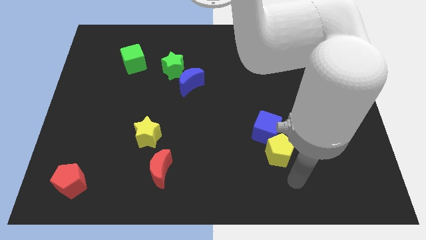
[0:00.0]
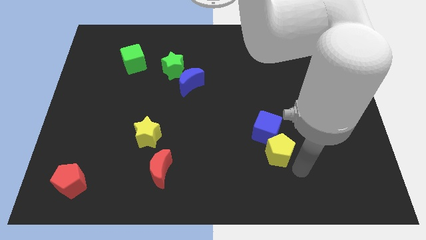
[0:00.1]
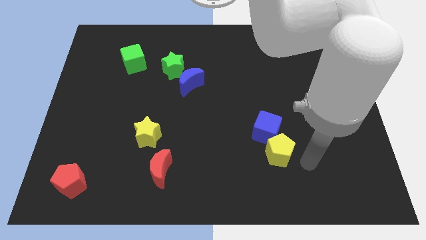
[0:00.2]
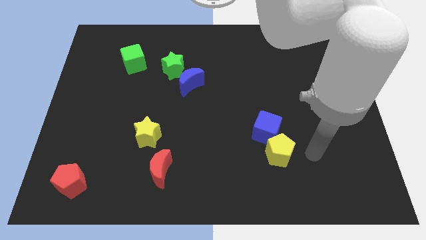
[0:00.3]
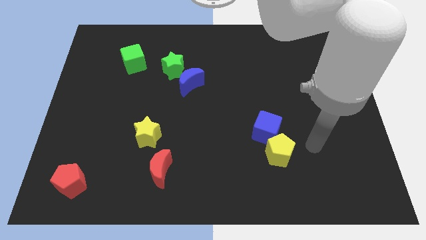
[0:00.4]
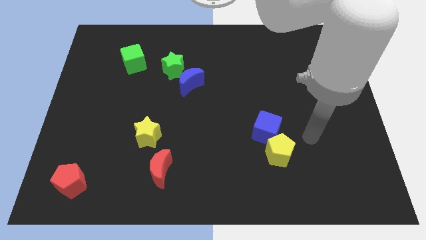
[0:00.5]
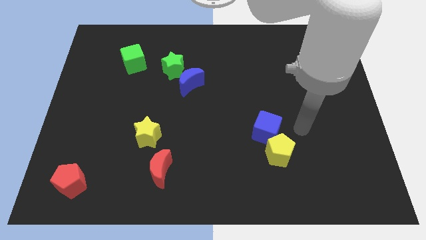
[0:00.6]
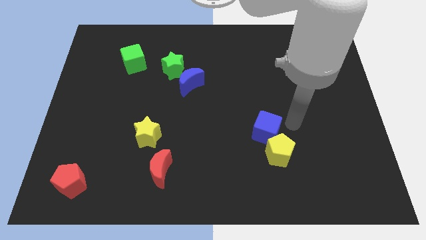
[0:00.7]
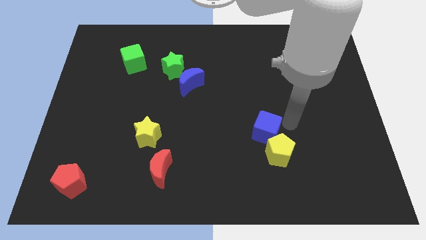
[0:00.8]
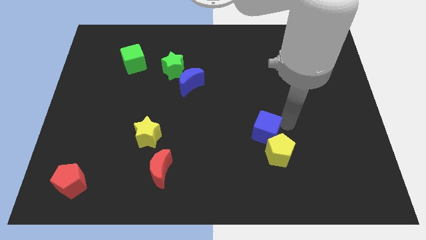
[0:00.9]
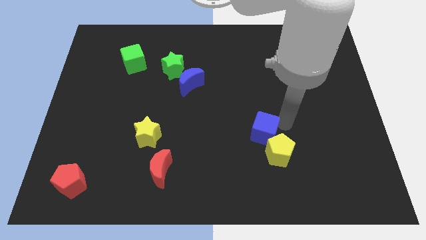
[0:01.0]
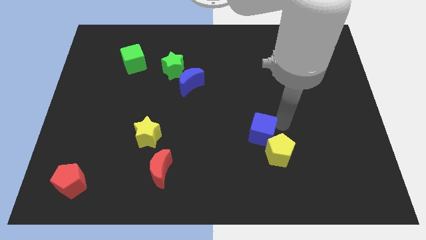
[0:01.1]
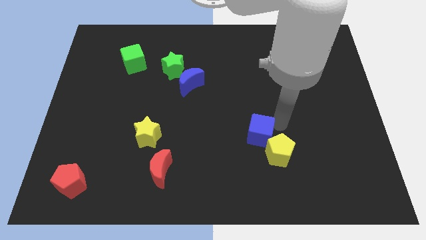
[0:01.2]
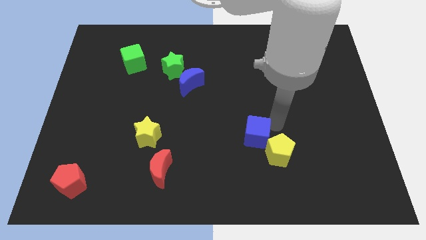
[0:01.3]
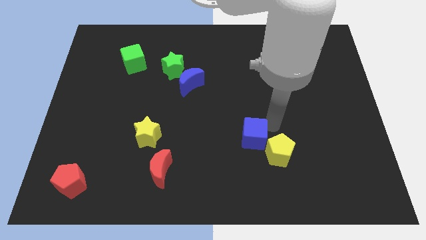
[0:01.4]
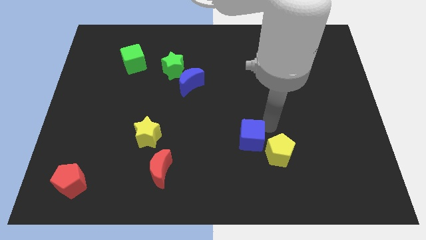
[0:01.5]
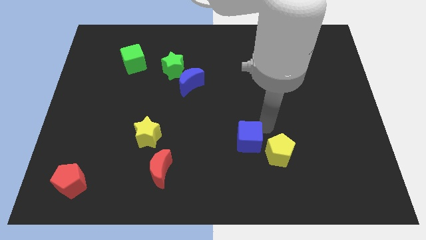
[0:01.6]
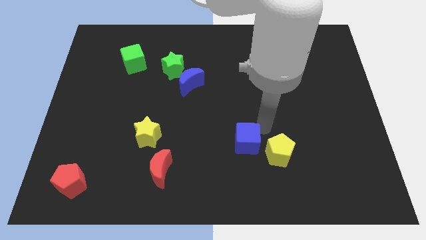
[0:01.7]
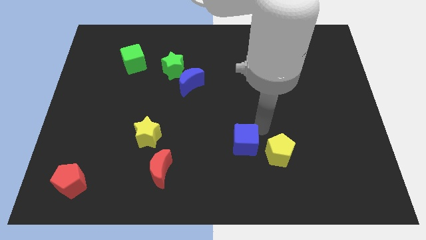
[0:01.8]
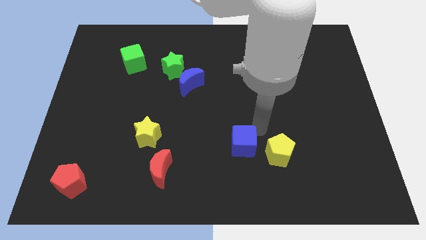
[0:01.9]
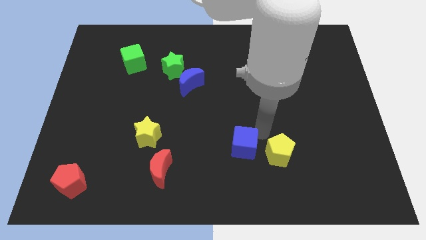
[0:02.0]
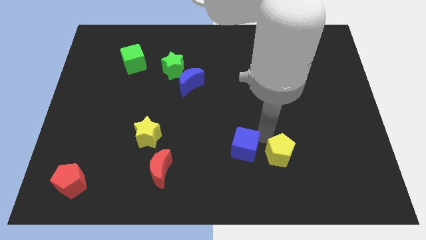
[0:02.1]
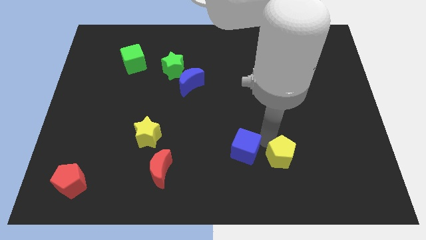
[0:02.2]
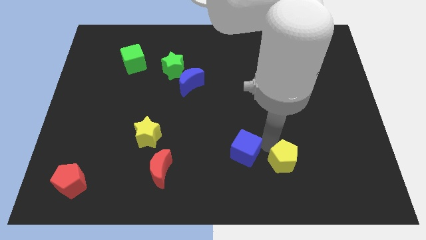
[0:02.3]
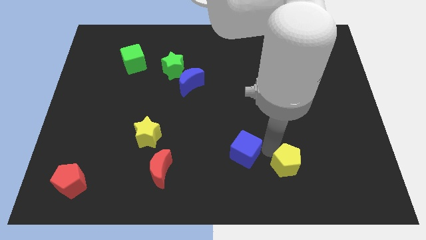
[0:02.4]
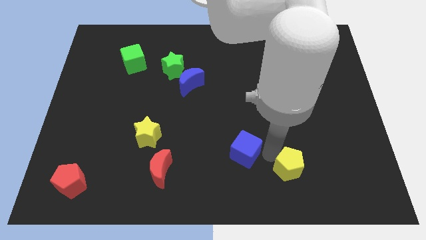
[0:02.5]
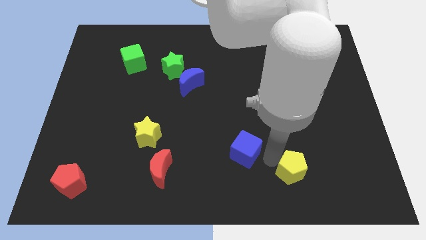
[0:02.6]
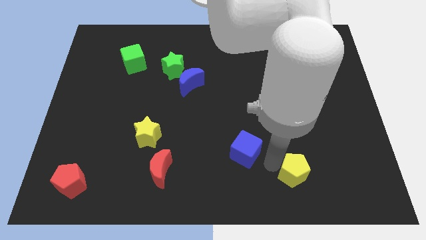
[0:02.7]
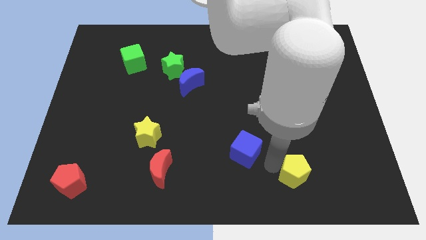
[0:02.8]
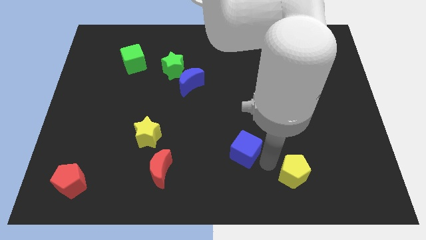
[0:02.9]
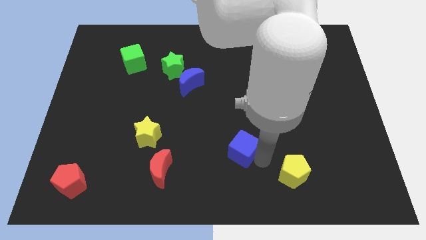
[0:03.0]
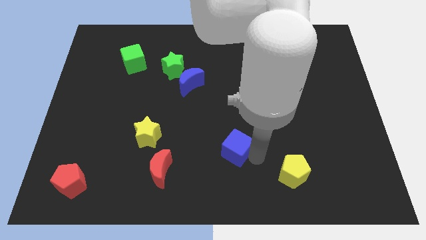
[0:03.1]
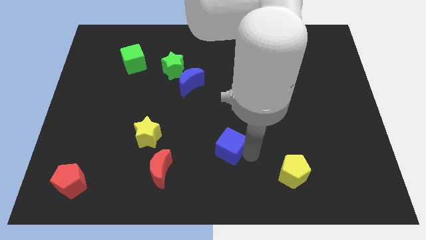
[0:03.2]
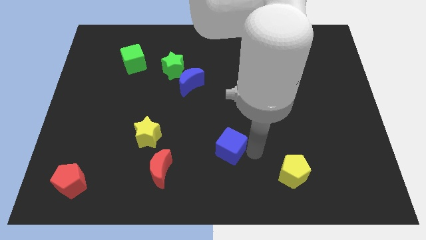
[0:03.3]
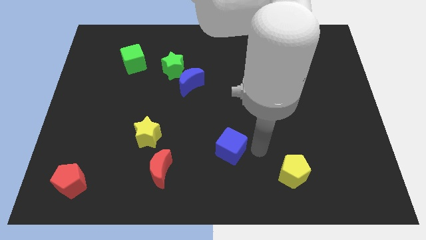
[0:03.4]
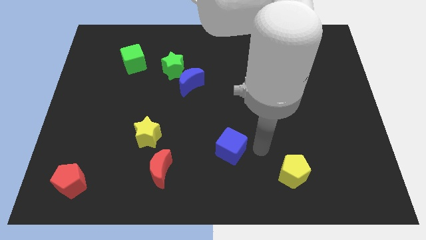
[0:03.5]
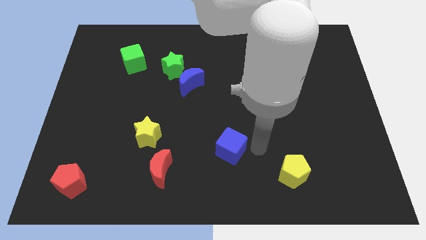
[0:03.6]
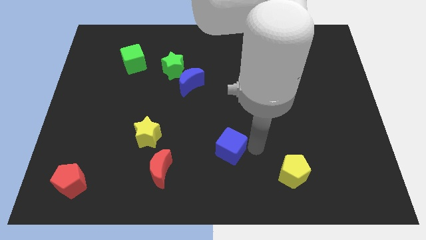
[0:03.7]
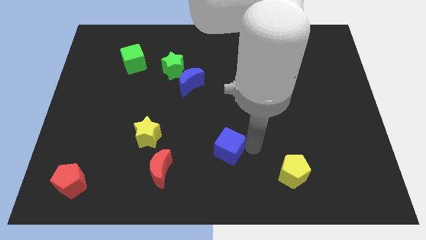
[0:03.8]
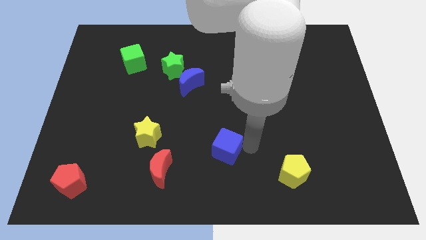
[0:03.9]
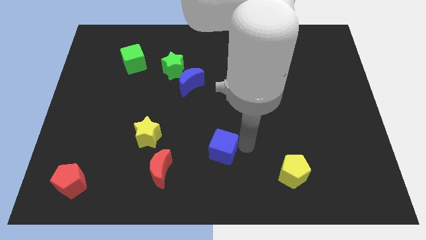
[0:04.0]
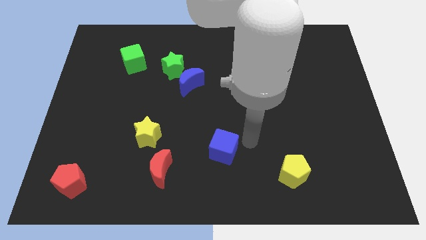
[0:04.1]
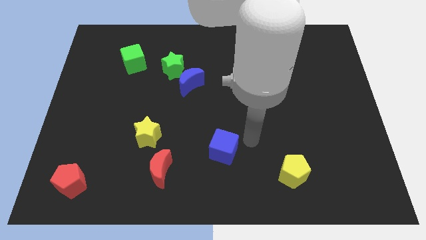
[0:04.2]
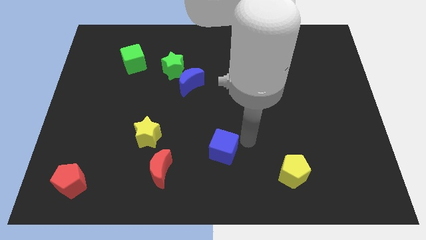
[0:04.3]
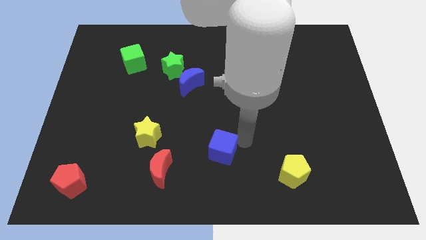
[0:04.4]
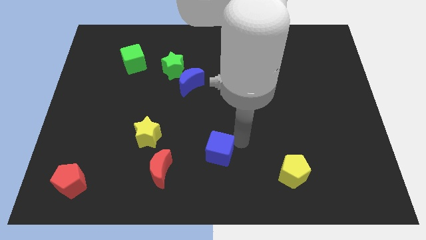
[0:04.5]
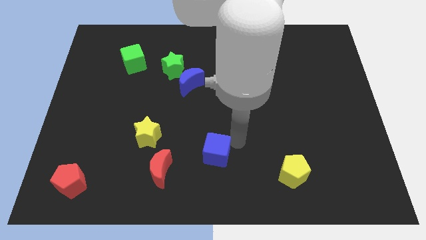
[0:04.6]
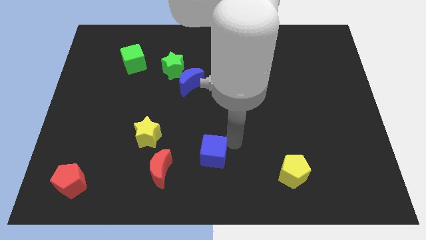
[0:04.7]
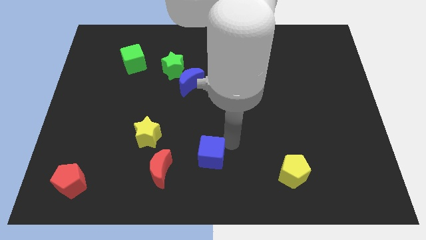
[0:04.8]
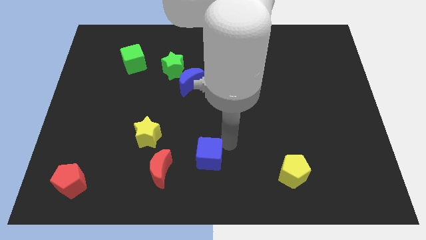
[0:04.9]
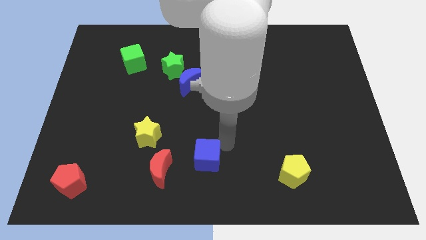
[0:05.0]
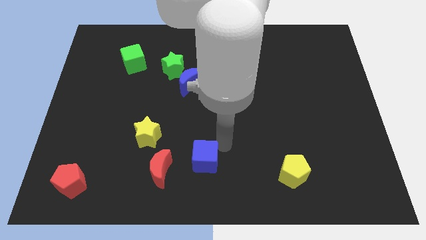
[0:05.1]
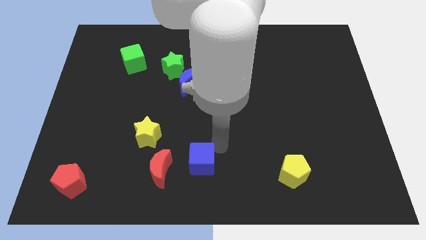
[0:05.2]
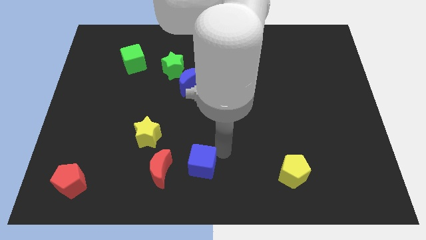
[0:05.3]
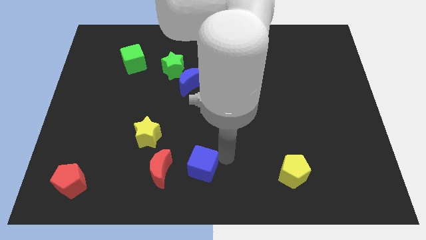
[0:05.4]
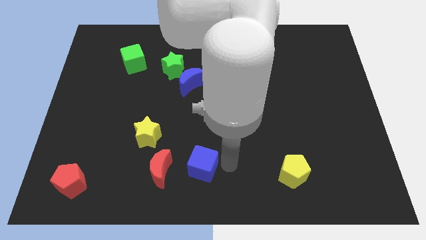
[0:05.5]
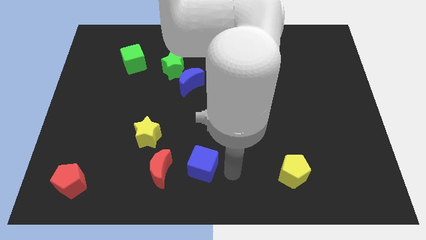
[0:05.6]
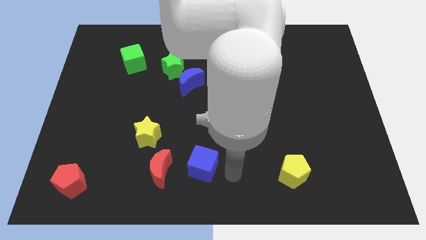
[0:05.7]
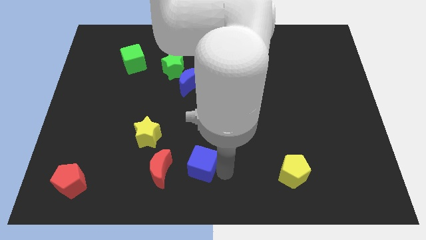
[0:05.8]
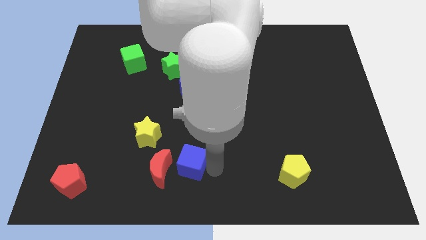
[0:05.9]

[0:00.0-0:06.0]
push the blue cube to the bottom right of the yellow star
